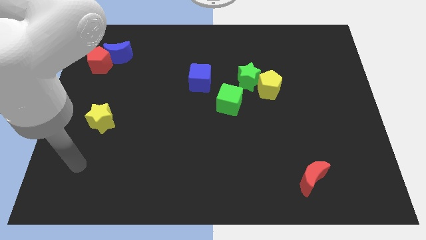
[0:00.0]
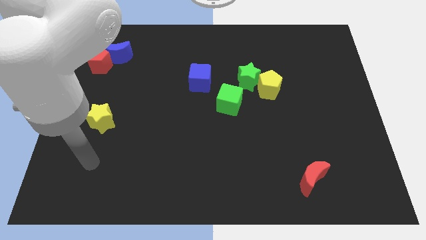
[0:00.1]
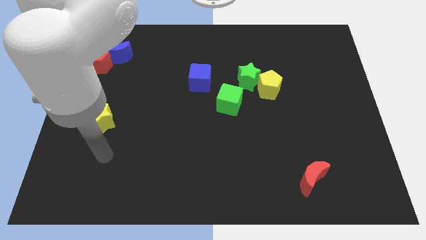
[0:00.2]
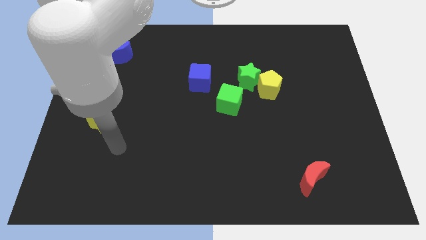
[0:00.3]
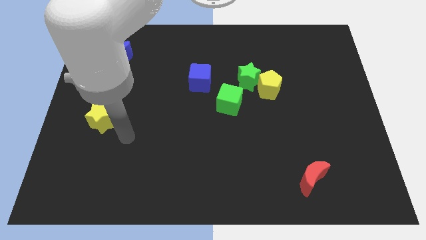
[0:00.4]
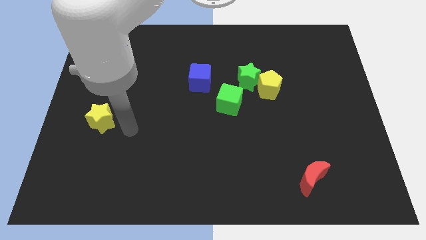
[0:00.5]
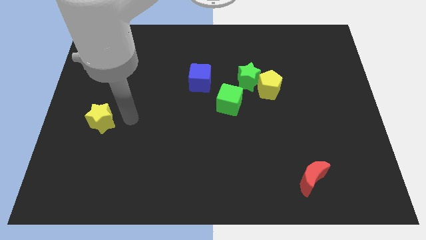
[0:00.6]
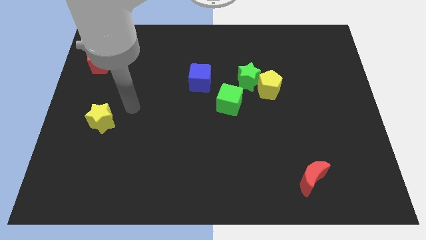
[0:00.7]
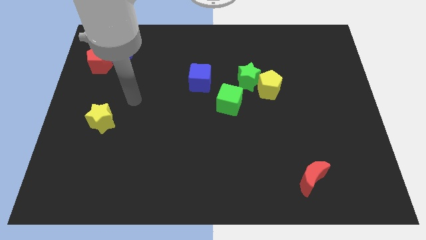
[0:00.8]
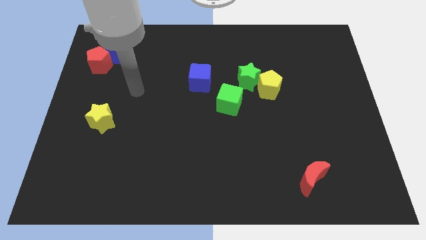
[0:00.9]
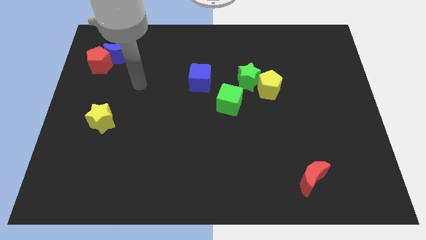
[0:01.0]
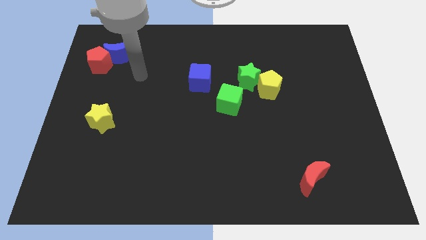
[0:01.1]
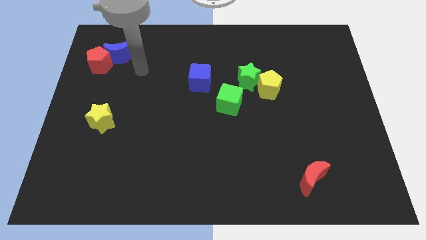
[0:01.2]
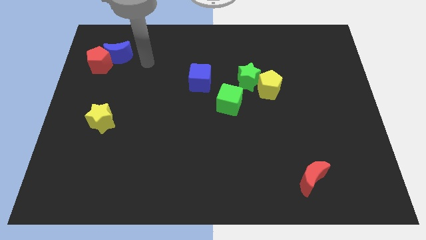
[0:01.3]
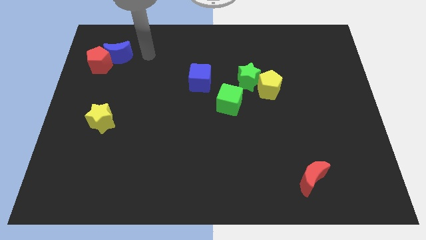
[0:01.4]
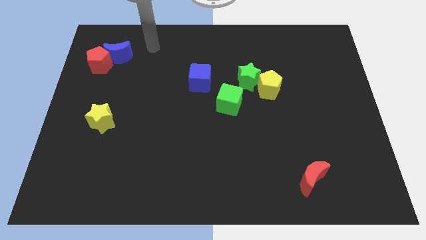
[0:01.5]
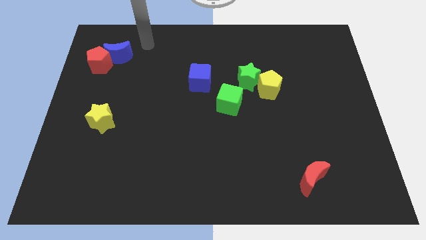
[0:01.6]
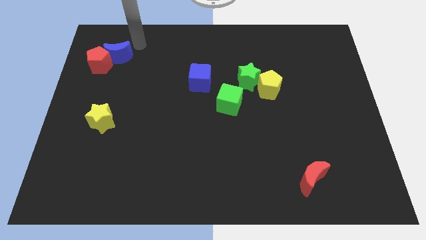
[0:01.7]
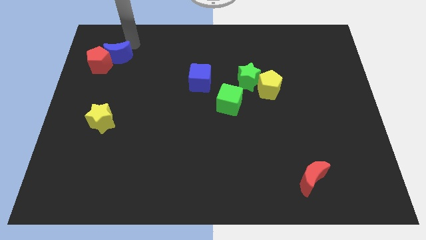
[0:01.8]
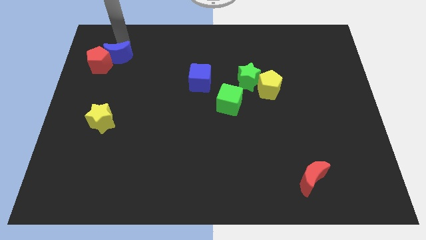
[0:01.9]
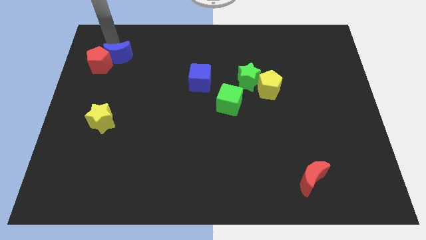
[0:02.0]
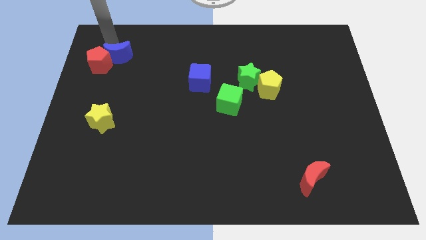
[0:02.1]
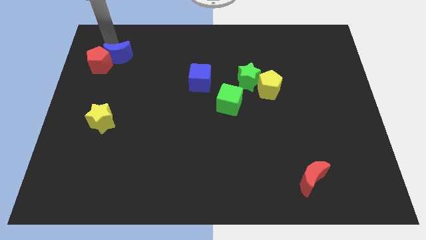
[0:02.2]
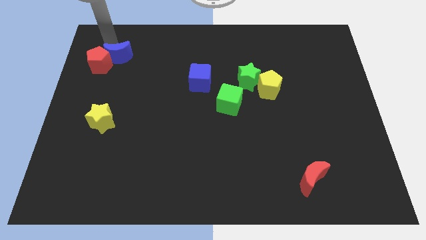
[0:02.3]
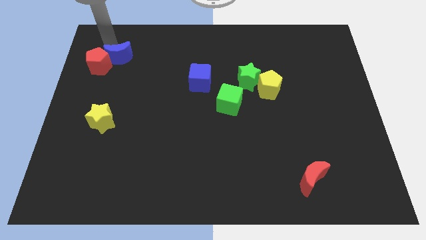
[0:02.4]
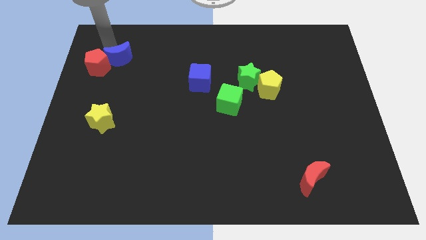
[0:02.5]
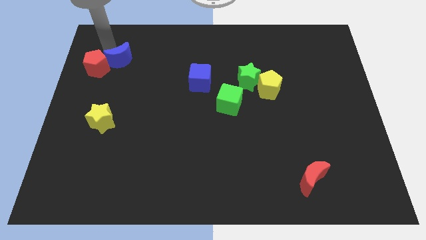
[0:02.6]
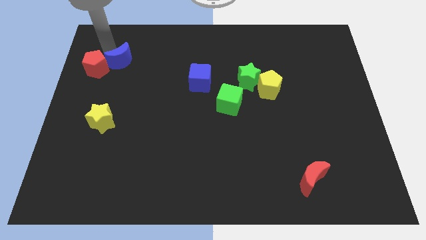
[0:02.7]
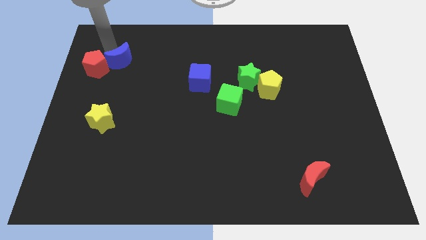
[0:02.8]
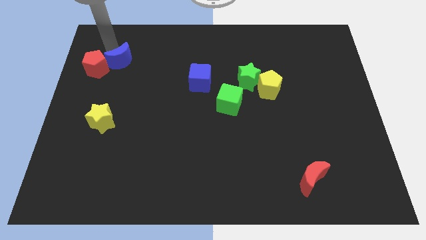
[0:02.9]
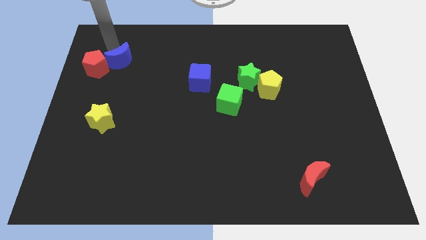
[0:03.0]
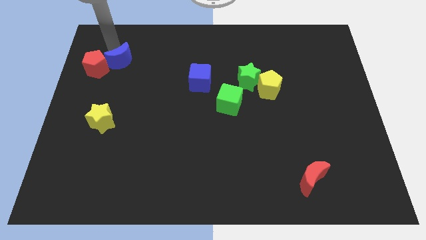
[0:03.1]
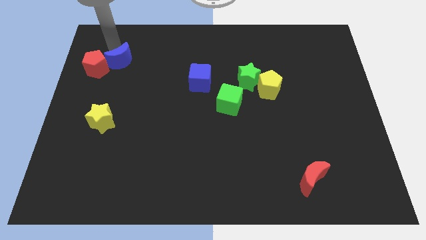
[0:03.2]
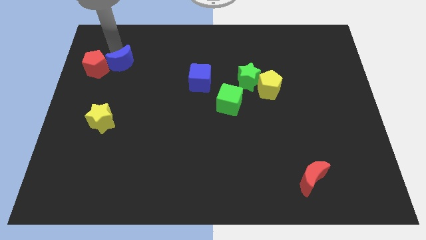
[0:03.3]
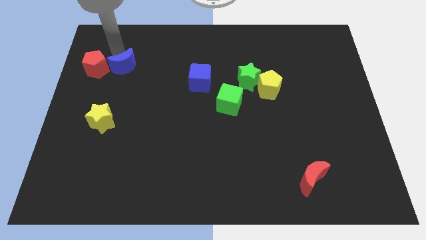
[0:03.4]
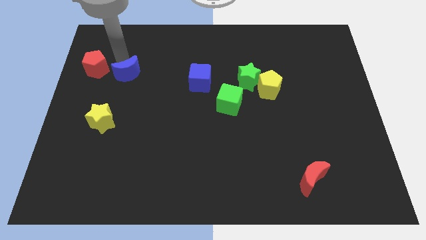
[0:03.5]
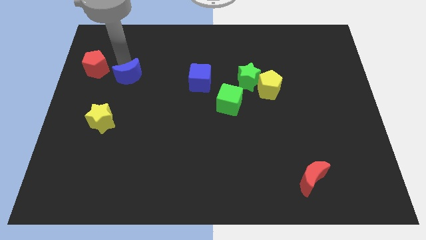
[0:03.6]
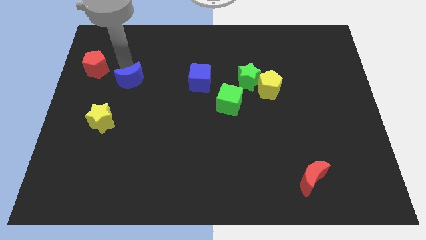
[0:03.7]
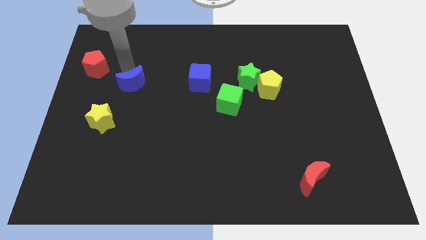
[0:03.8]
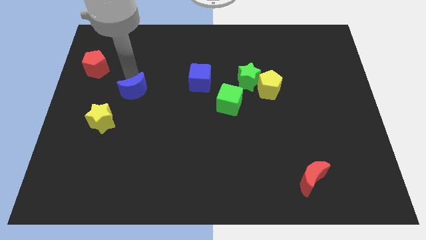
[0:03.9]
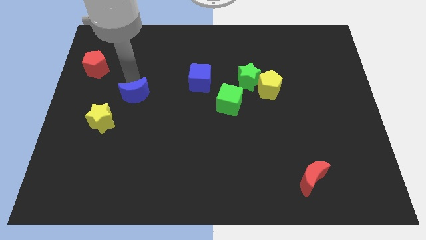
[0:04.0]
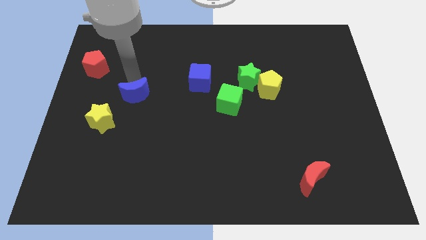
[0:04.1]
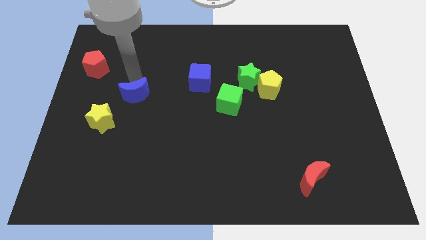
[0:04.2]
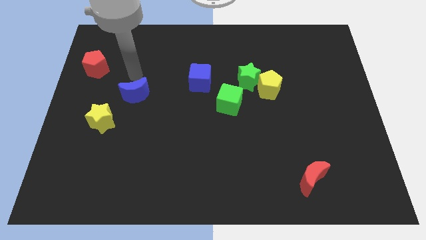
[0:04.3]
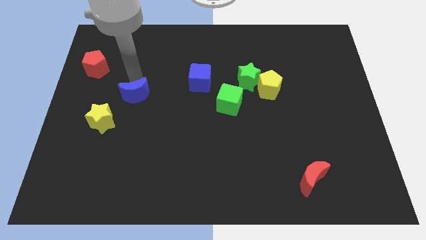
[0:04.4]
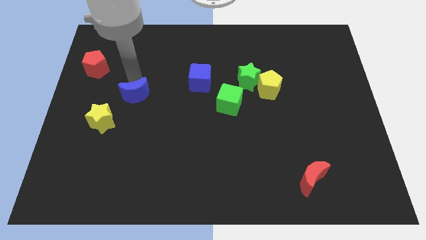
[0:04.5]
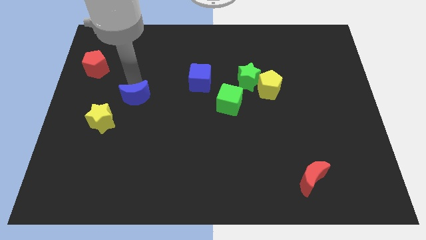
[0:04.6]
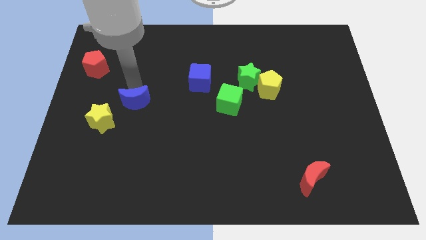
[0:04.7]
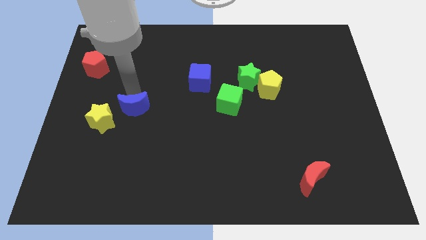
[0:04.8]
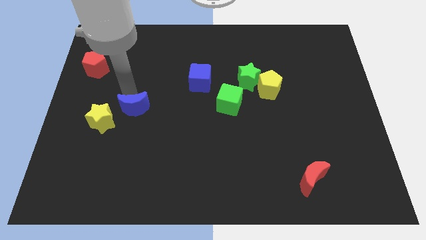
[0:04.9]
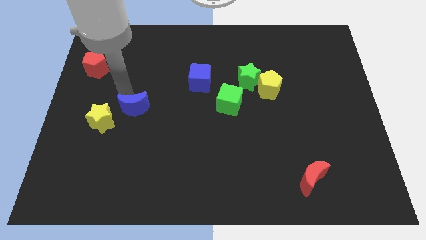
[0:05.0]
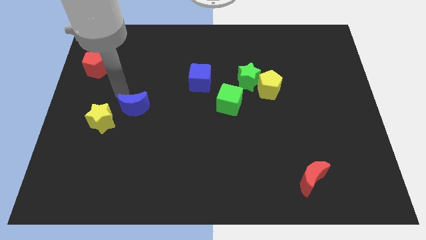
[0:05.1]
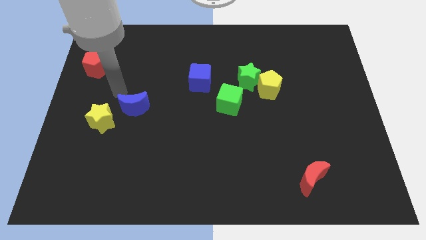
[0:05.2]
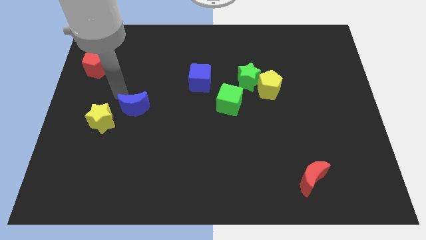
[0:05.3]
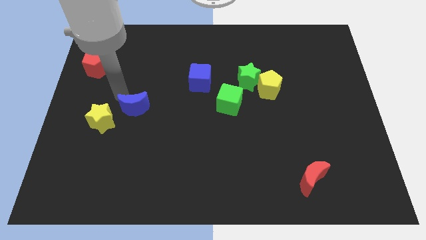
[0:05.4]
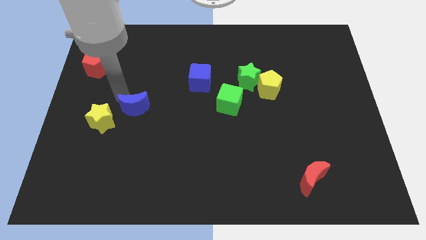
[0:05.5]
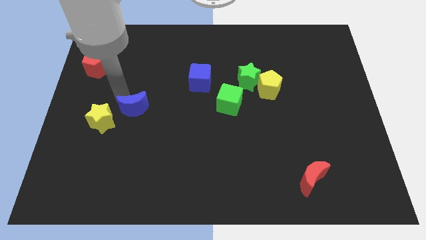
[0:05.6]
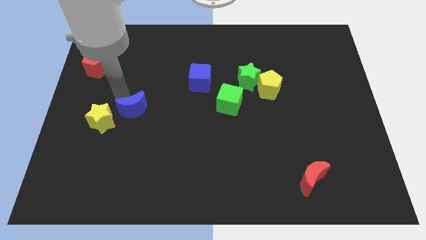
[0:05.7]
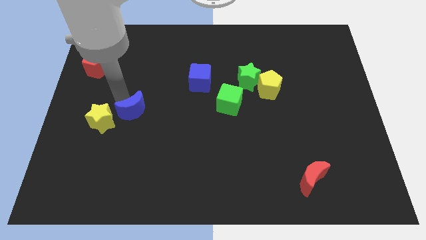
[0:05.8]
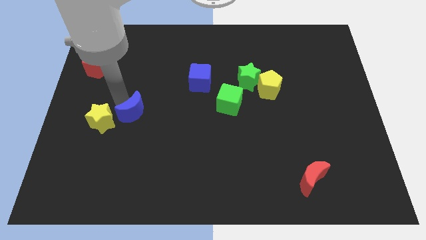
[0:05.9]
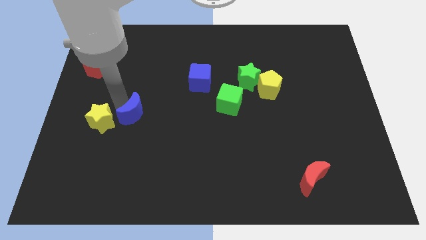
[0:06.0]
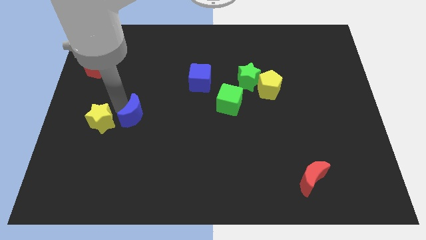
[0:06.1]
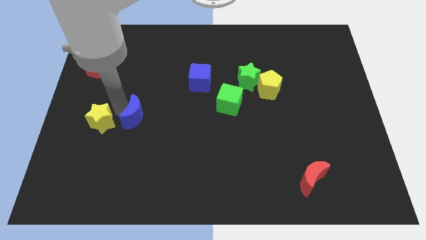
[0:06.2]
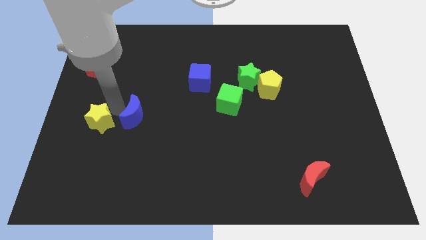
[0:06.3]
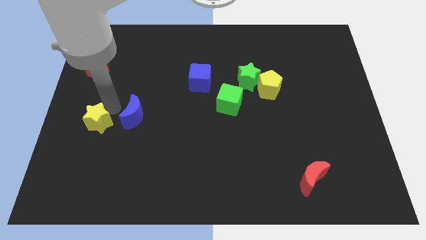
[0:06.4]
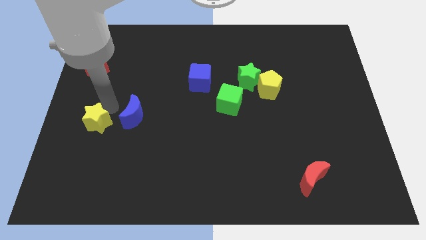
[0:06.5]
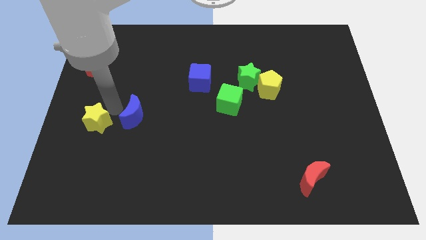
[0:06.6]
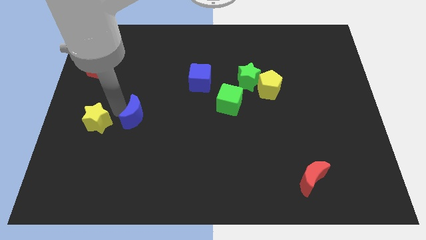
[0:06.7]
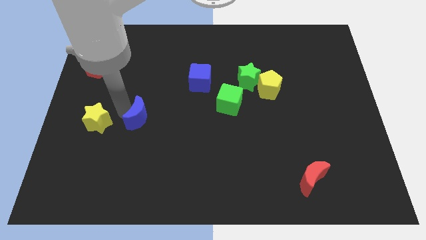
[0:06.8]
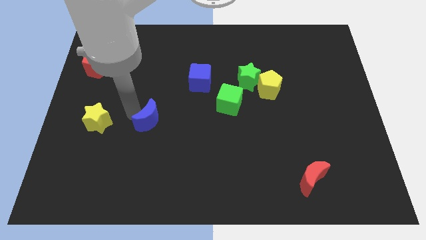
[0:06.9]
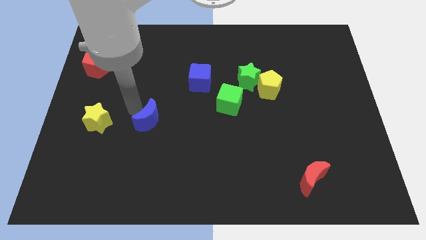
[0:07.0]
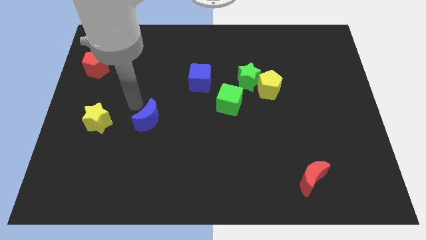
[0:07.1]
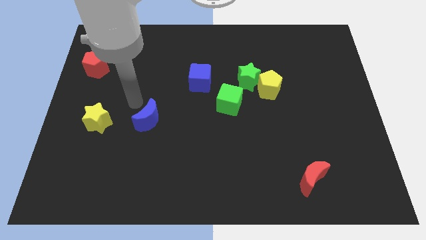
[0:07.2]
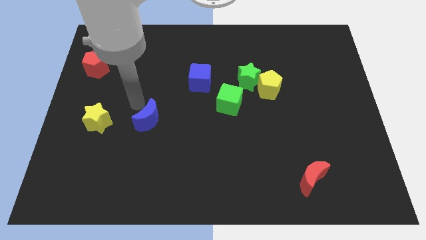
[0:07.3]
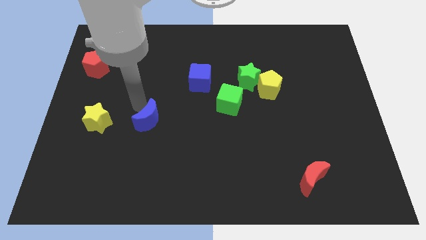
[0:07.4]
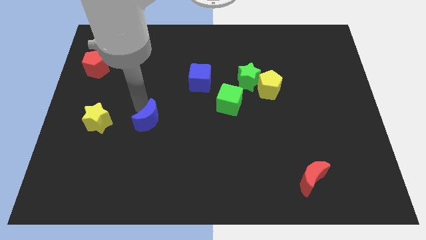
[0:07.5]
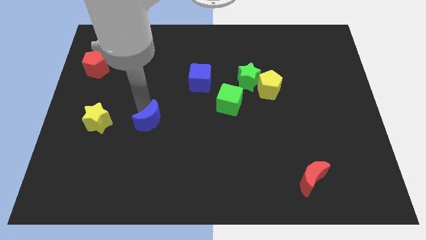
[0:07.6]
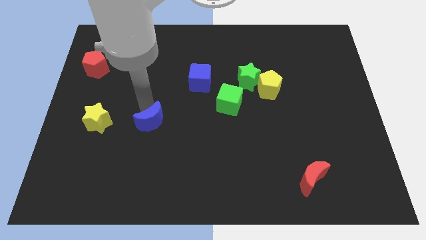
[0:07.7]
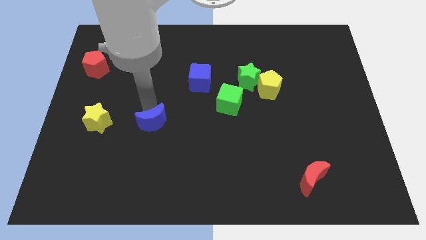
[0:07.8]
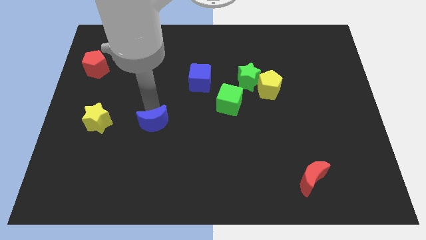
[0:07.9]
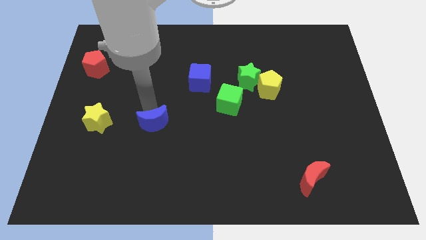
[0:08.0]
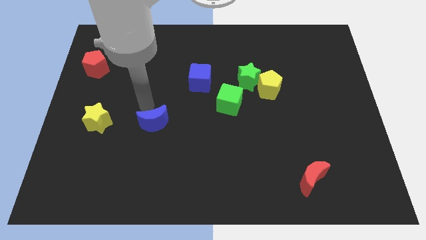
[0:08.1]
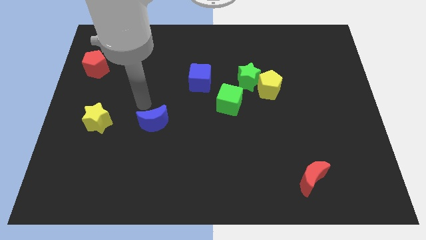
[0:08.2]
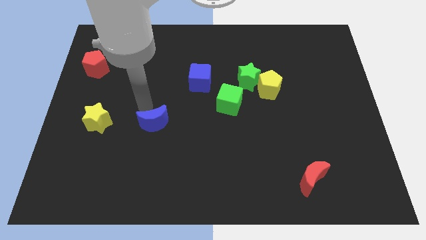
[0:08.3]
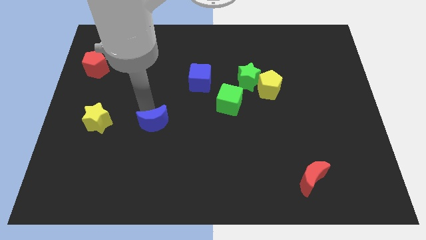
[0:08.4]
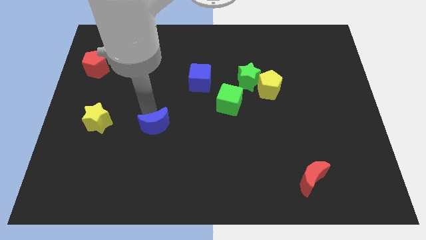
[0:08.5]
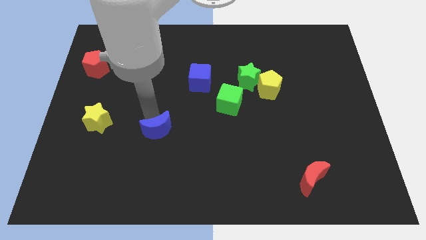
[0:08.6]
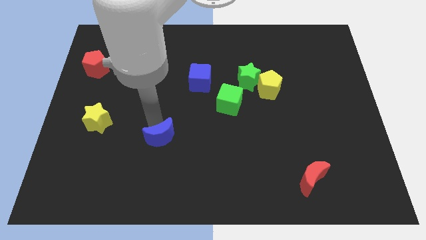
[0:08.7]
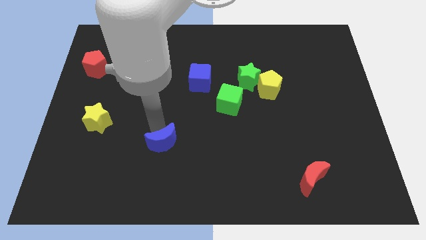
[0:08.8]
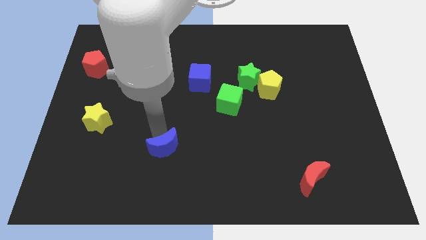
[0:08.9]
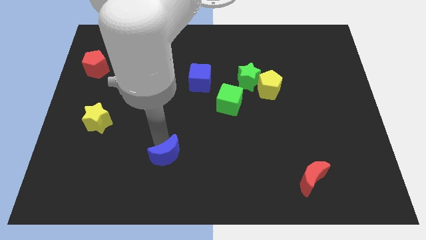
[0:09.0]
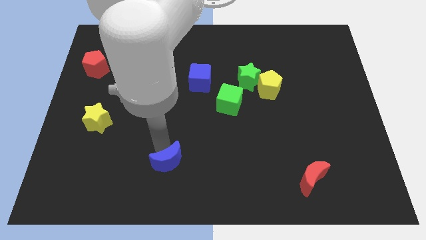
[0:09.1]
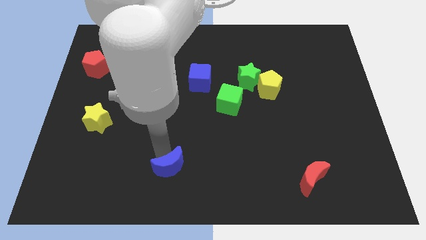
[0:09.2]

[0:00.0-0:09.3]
push the blue moon to the bottom
